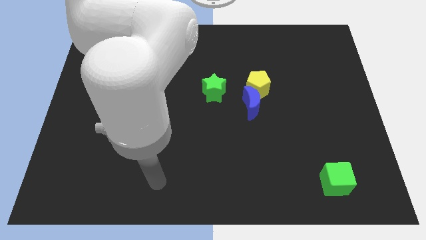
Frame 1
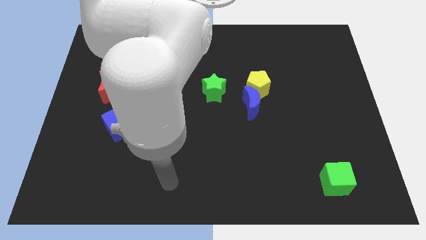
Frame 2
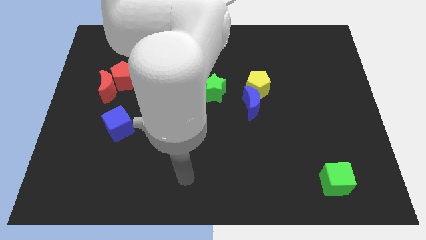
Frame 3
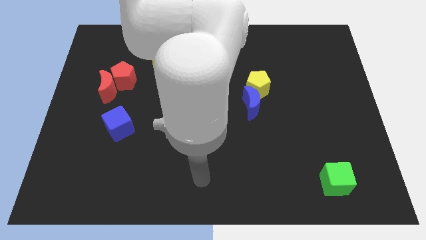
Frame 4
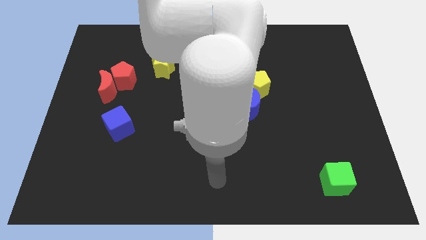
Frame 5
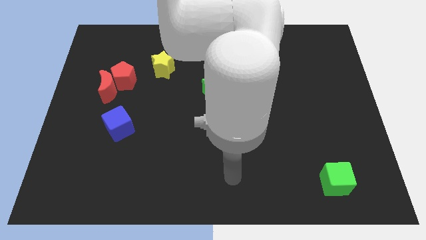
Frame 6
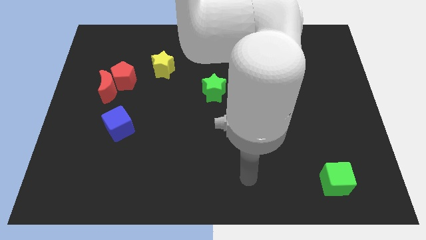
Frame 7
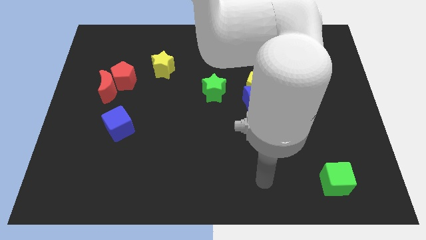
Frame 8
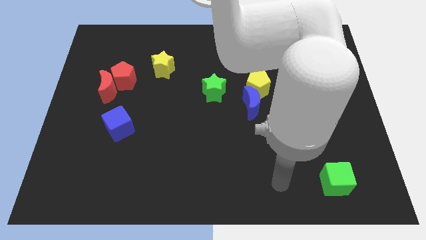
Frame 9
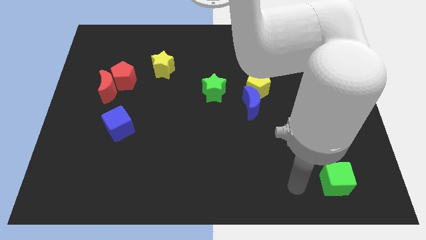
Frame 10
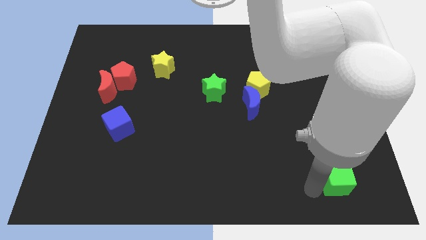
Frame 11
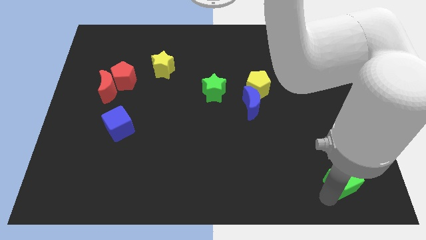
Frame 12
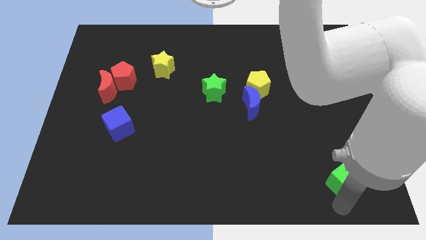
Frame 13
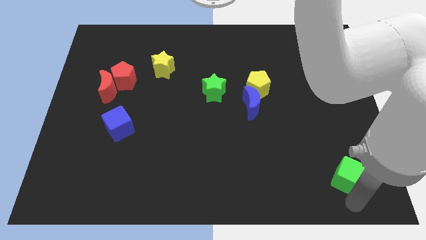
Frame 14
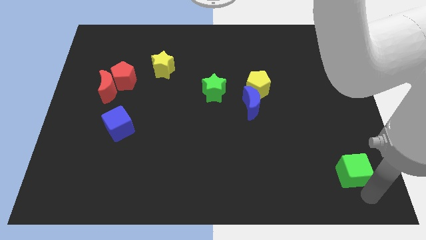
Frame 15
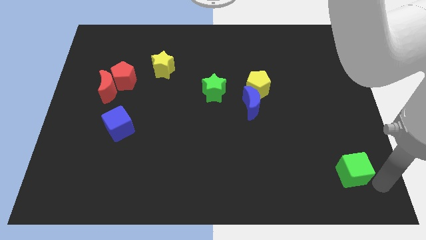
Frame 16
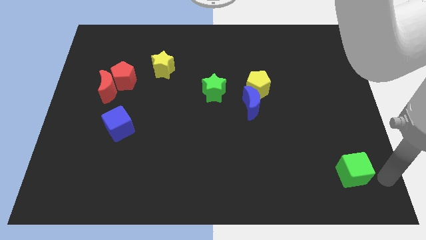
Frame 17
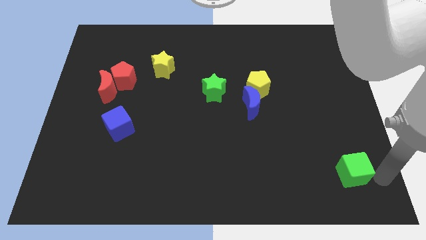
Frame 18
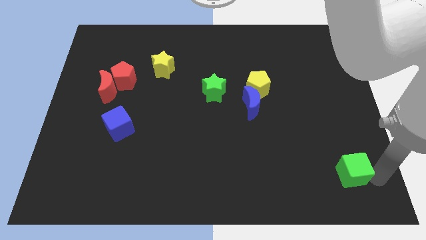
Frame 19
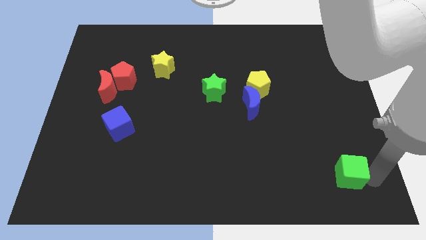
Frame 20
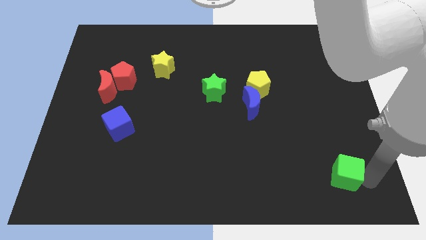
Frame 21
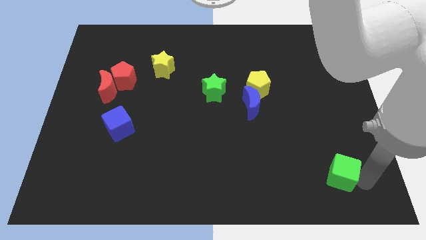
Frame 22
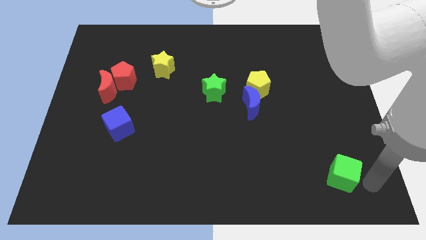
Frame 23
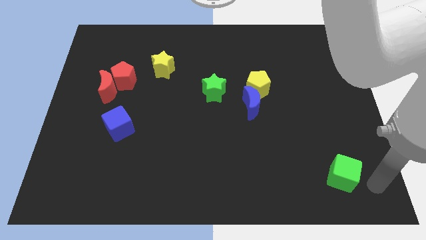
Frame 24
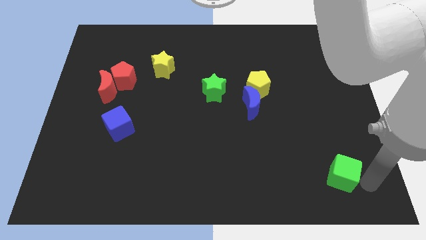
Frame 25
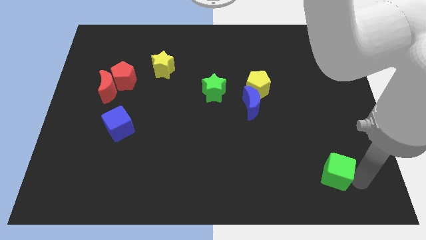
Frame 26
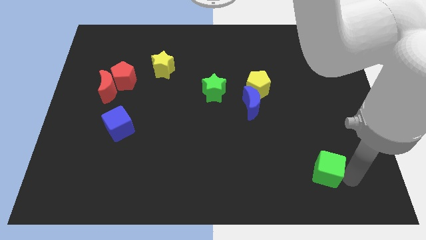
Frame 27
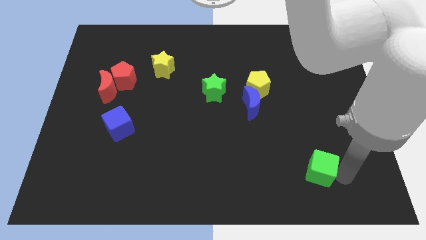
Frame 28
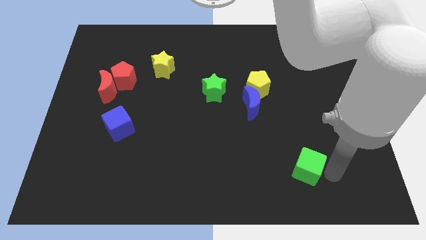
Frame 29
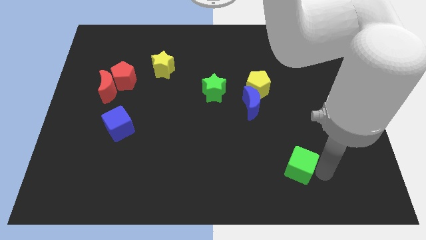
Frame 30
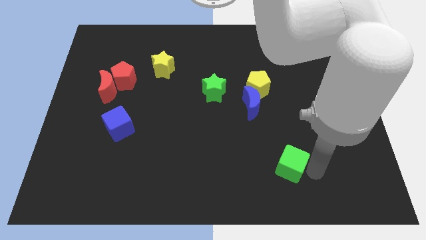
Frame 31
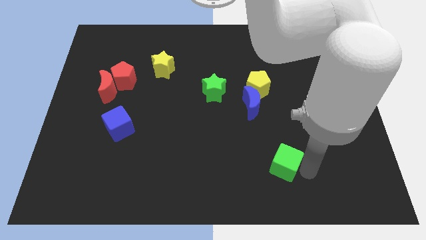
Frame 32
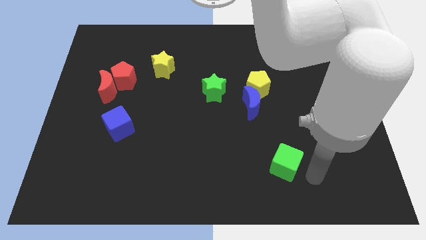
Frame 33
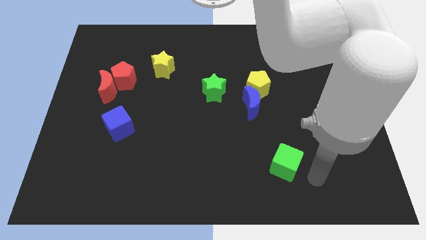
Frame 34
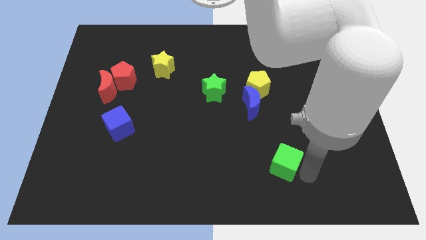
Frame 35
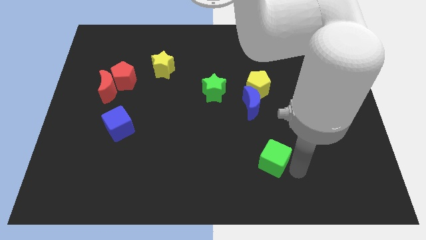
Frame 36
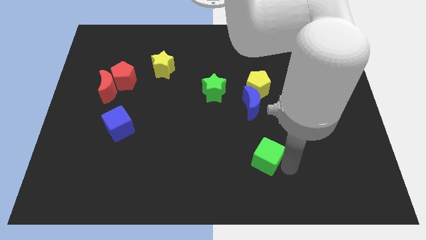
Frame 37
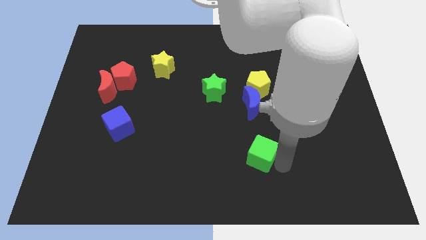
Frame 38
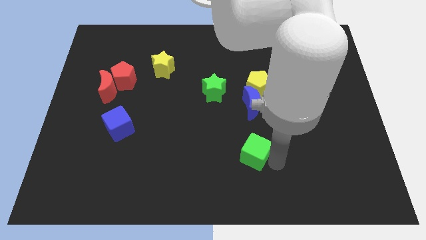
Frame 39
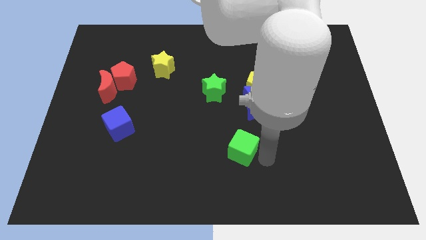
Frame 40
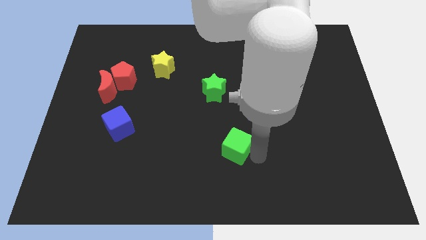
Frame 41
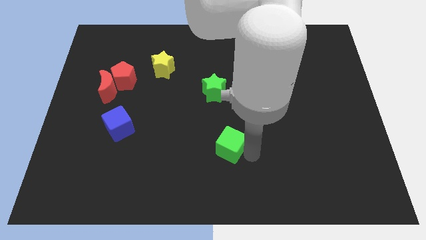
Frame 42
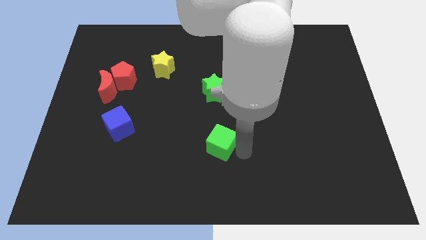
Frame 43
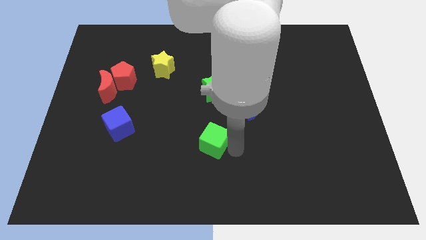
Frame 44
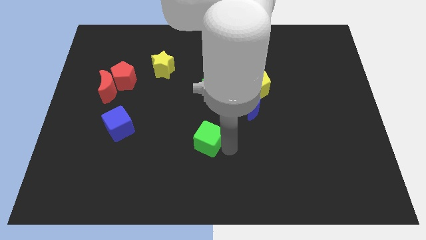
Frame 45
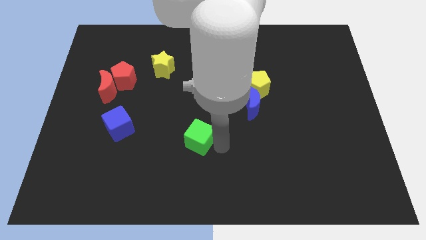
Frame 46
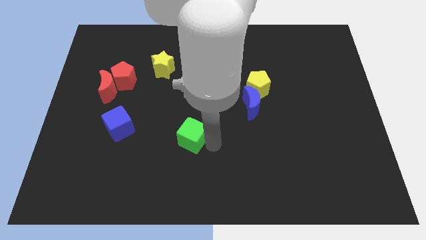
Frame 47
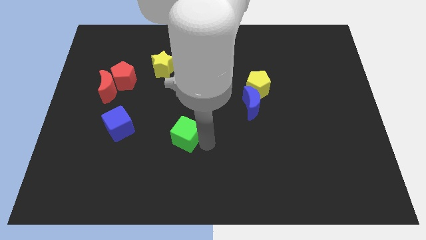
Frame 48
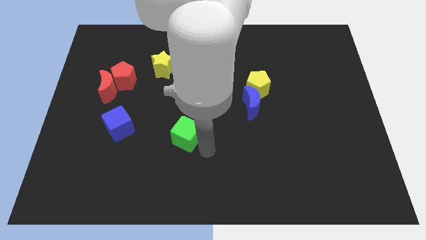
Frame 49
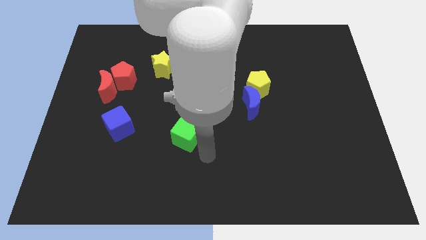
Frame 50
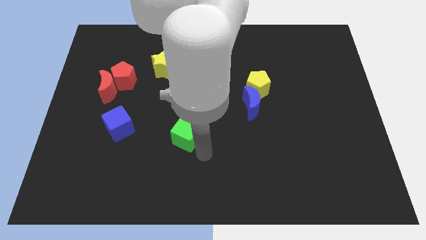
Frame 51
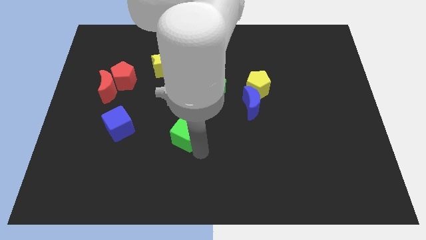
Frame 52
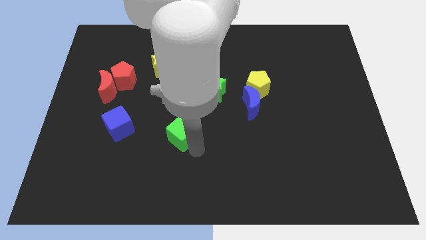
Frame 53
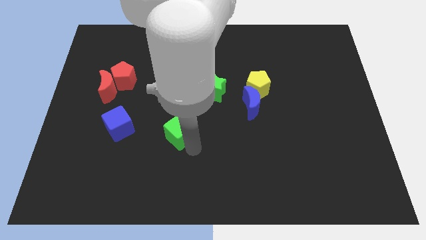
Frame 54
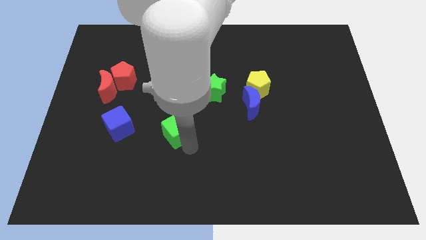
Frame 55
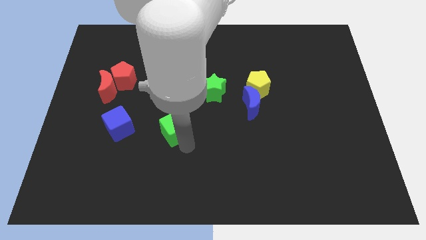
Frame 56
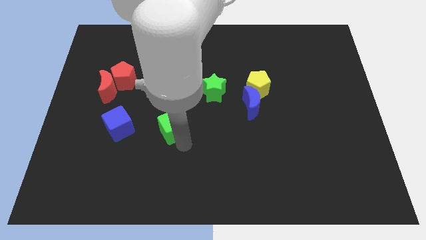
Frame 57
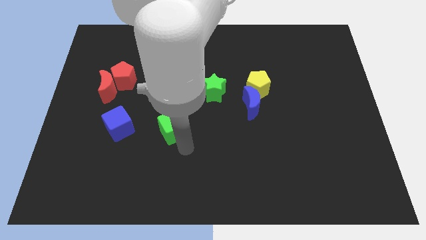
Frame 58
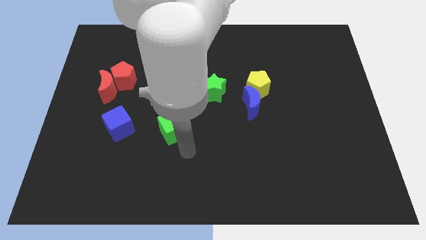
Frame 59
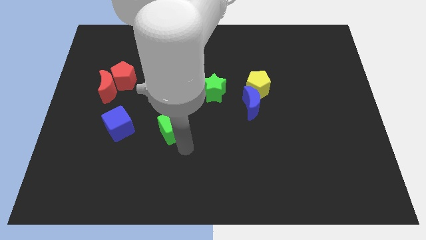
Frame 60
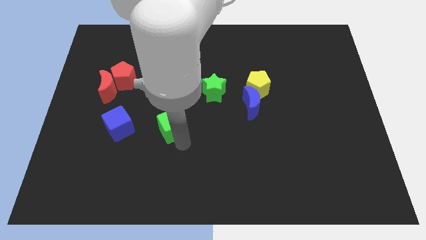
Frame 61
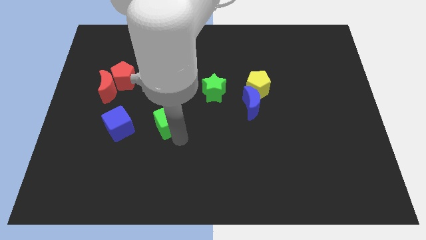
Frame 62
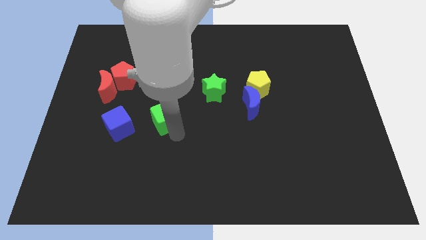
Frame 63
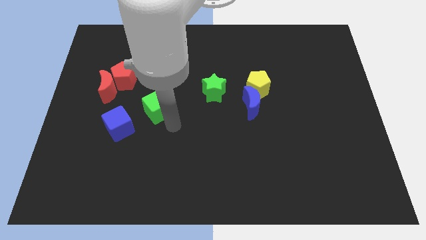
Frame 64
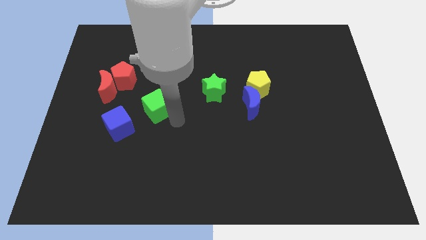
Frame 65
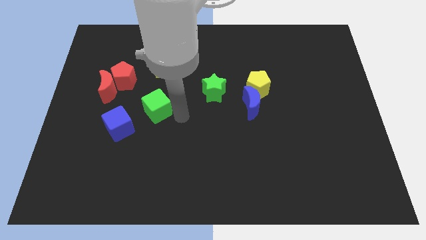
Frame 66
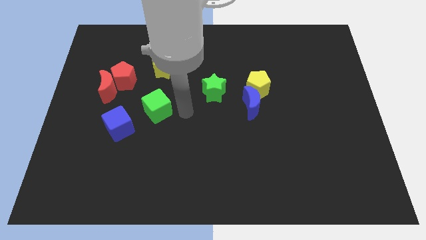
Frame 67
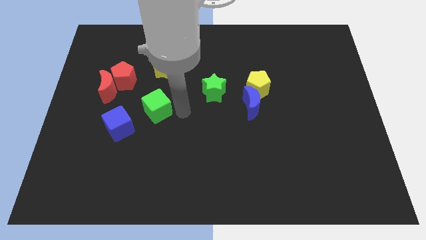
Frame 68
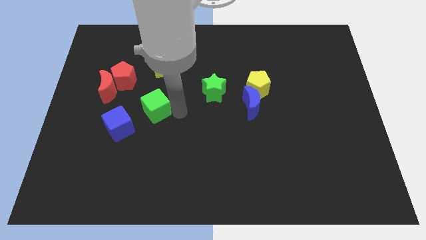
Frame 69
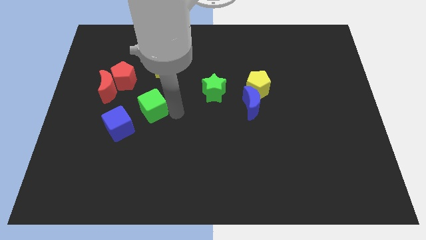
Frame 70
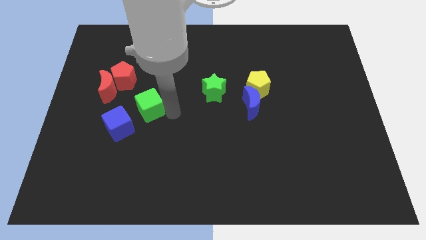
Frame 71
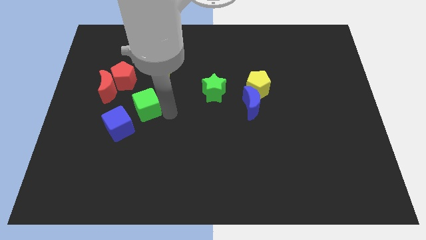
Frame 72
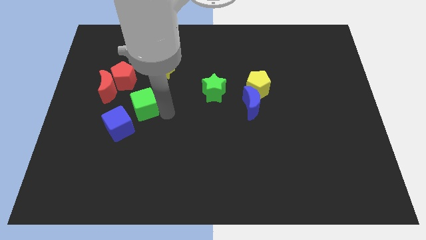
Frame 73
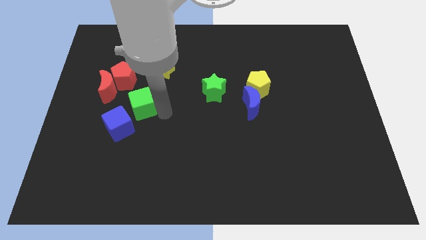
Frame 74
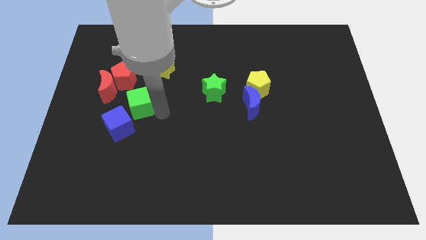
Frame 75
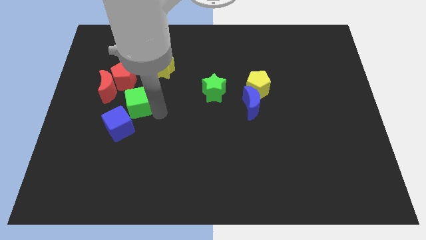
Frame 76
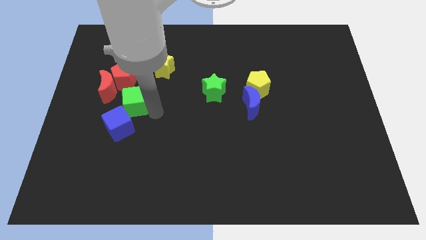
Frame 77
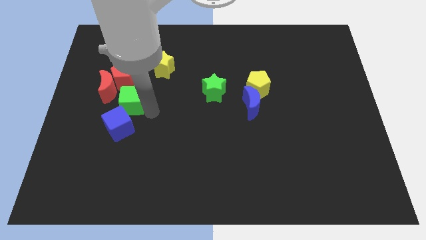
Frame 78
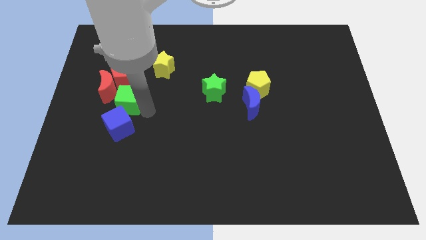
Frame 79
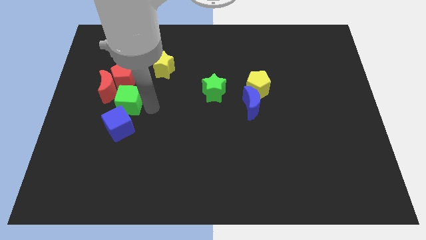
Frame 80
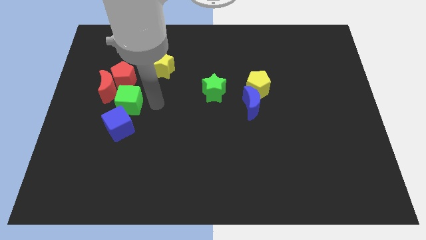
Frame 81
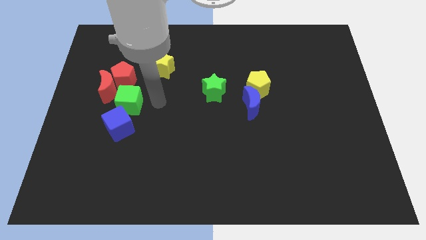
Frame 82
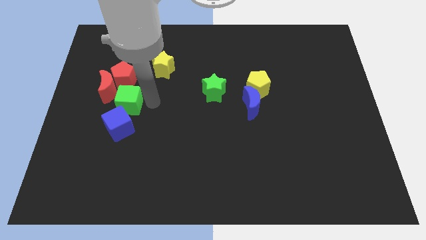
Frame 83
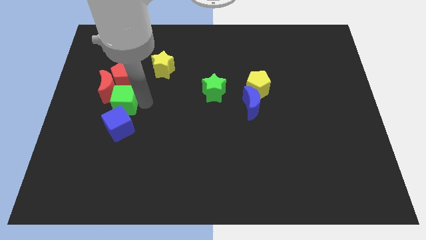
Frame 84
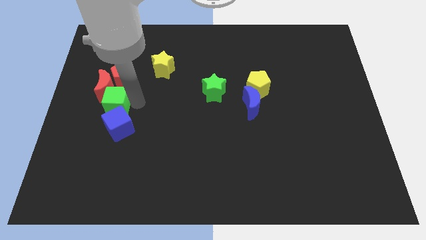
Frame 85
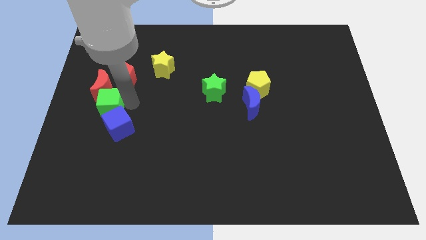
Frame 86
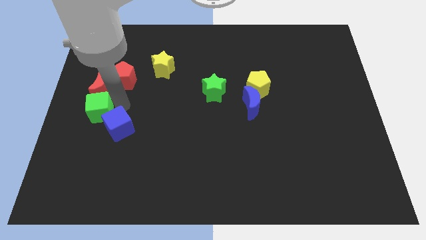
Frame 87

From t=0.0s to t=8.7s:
slide the green cube to the center left
